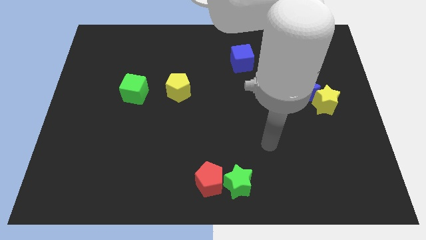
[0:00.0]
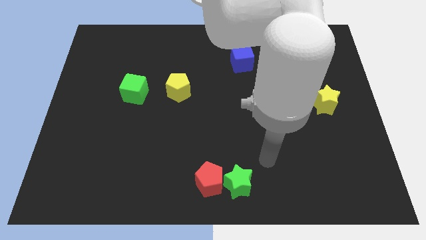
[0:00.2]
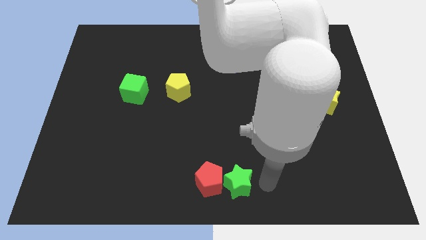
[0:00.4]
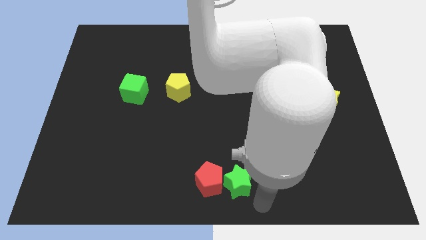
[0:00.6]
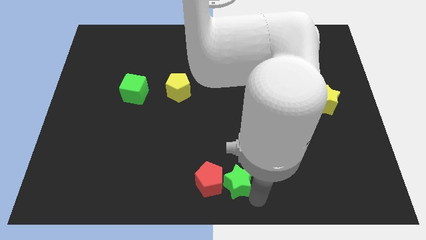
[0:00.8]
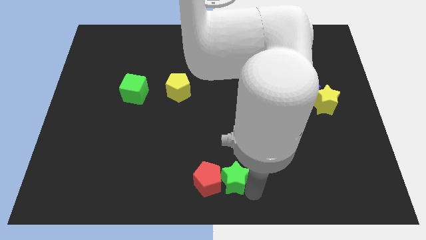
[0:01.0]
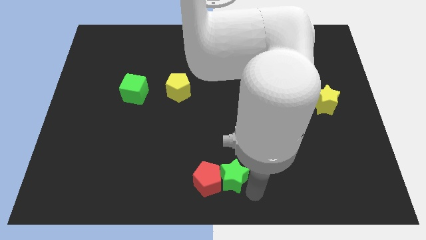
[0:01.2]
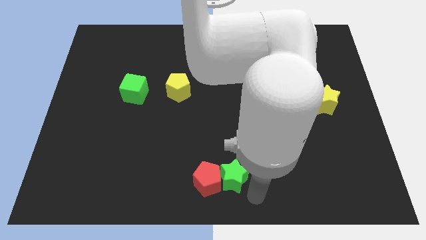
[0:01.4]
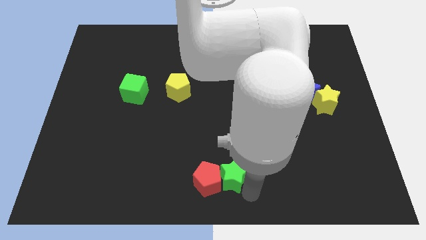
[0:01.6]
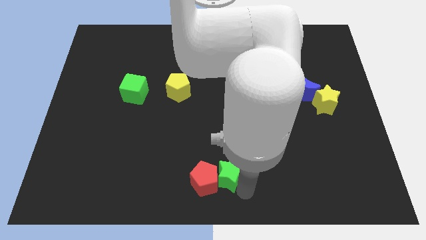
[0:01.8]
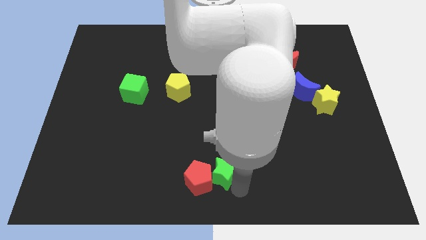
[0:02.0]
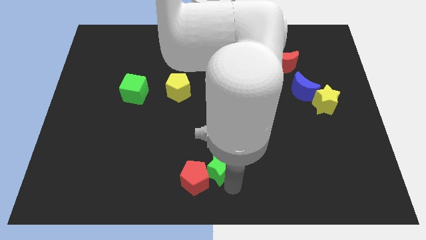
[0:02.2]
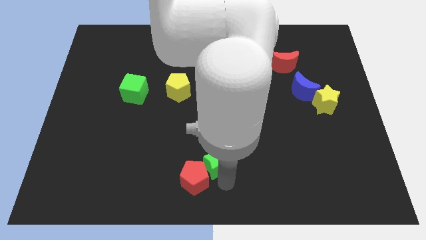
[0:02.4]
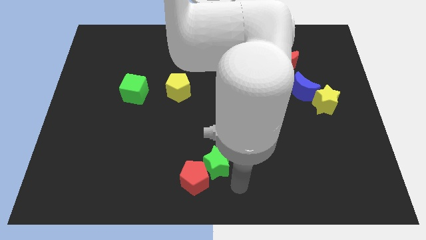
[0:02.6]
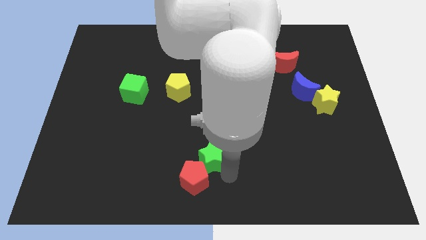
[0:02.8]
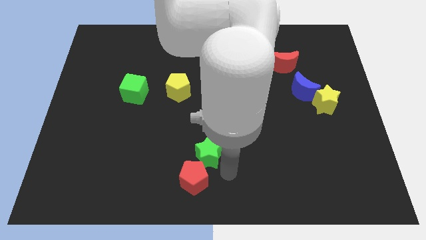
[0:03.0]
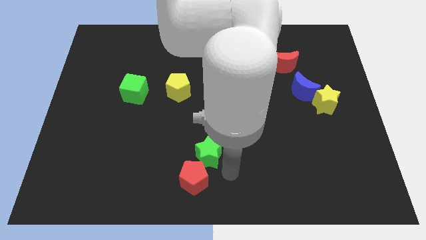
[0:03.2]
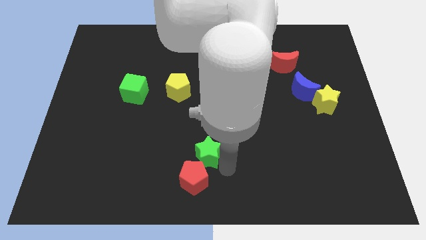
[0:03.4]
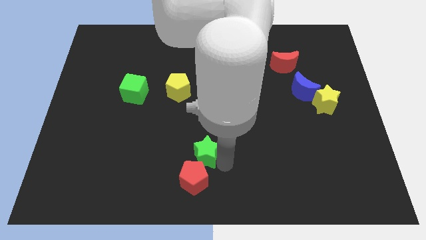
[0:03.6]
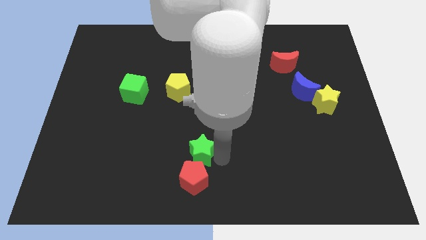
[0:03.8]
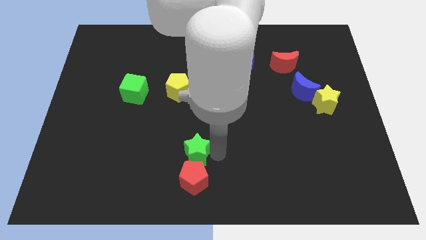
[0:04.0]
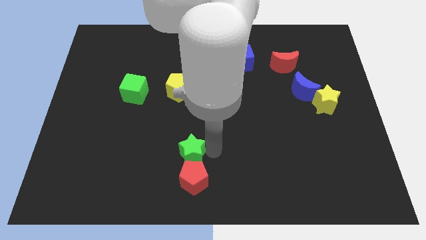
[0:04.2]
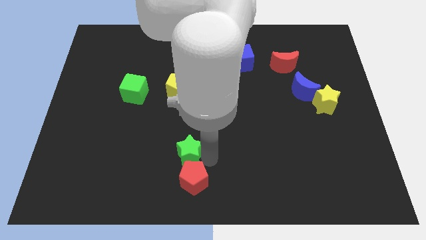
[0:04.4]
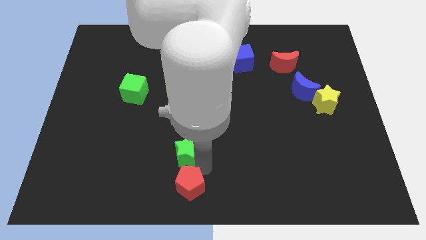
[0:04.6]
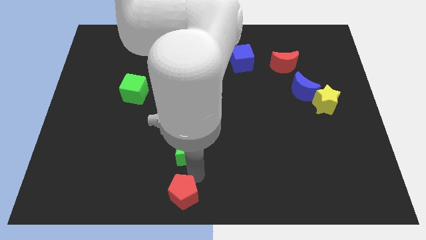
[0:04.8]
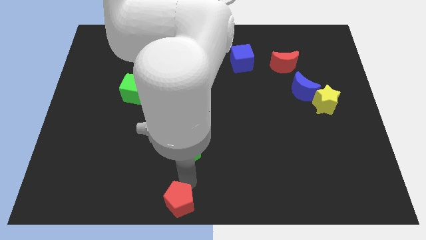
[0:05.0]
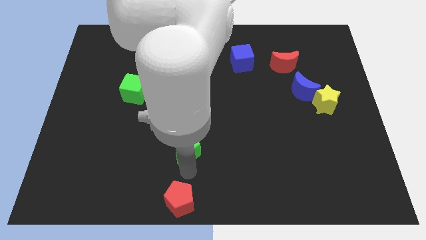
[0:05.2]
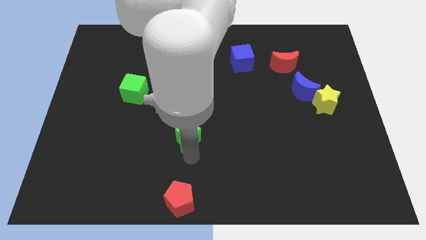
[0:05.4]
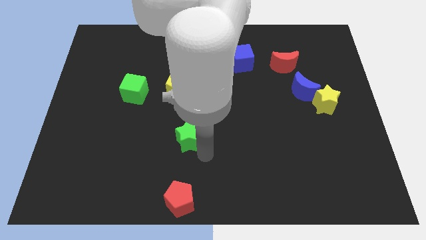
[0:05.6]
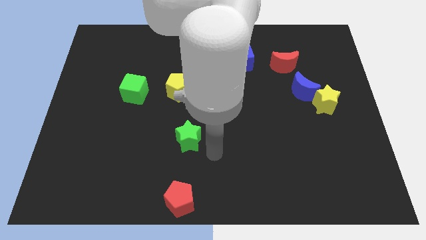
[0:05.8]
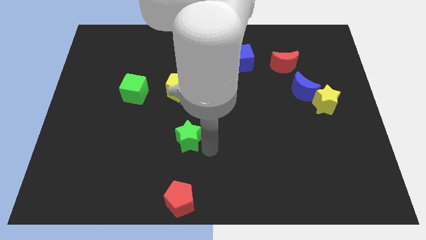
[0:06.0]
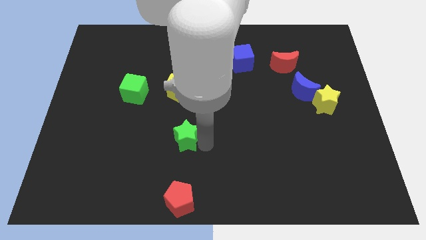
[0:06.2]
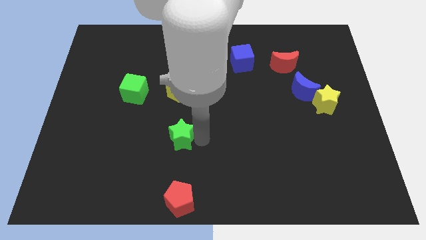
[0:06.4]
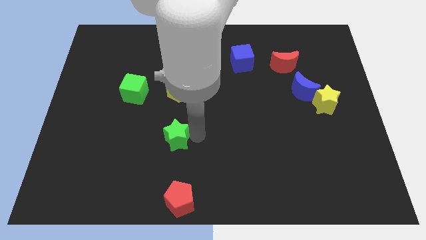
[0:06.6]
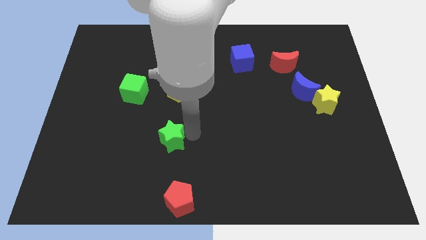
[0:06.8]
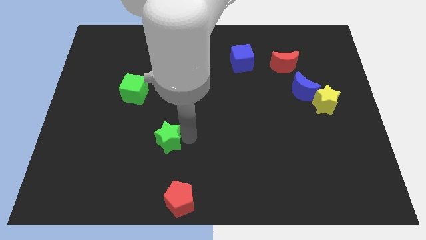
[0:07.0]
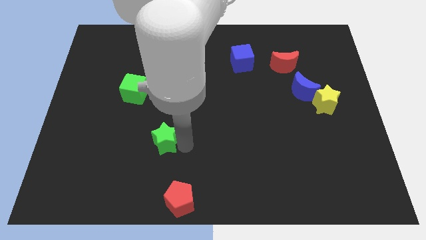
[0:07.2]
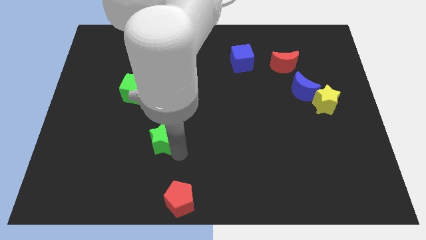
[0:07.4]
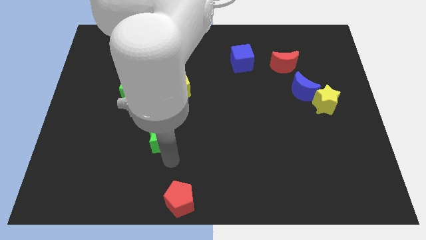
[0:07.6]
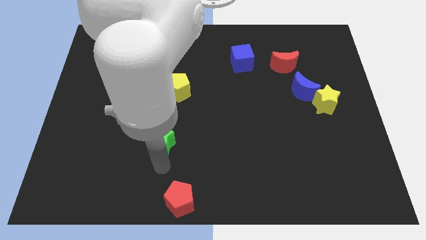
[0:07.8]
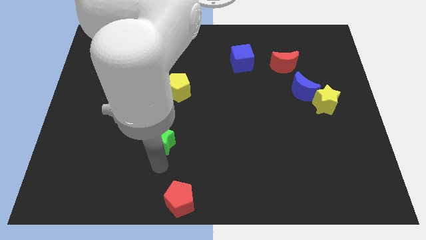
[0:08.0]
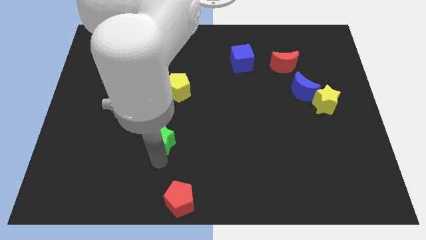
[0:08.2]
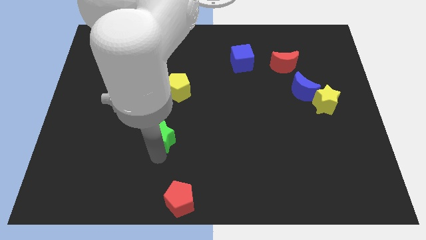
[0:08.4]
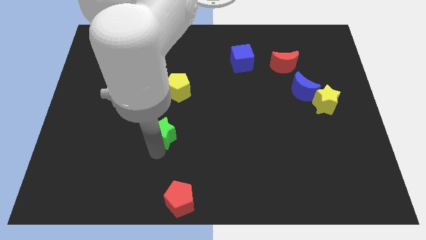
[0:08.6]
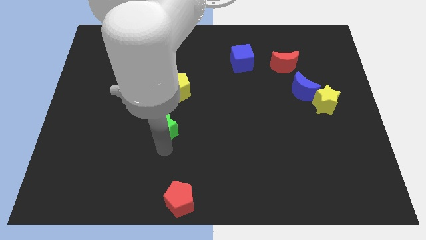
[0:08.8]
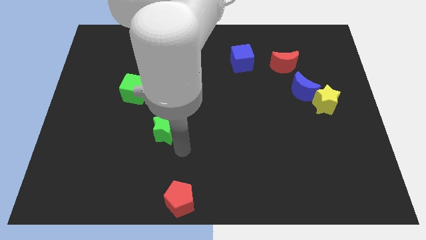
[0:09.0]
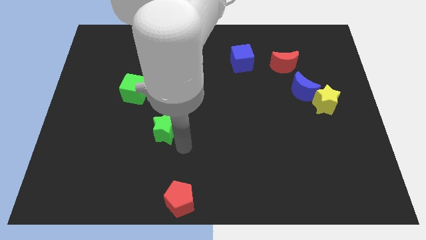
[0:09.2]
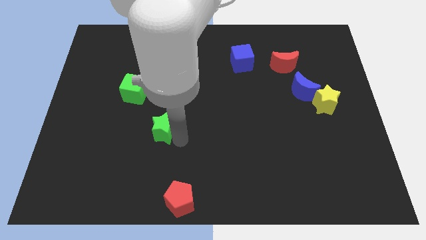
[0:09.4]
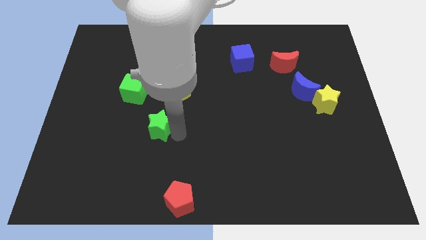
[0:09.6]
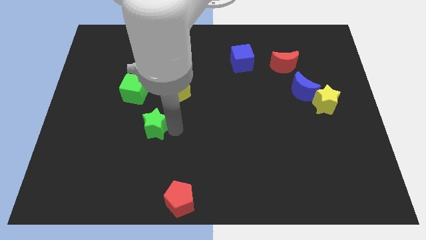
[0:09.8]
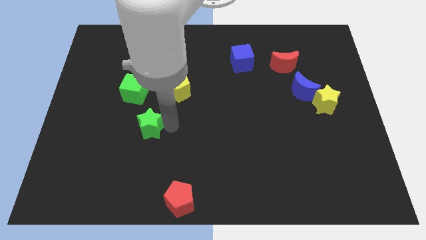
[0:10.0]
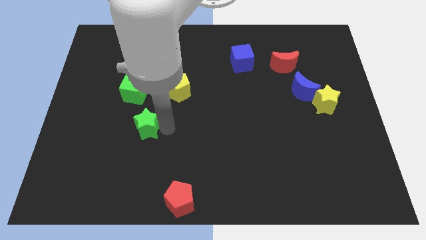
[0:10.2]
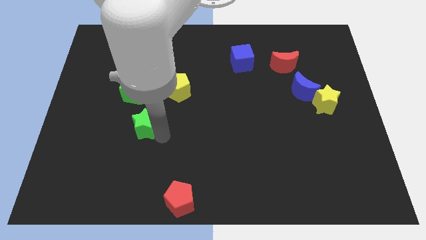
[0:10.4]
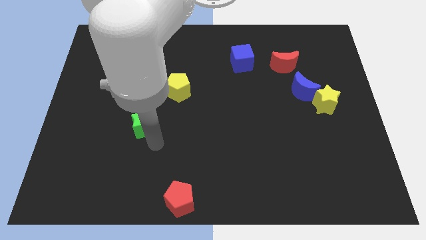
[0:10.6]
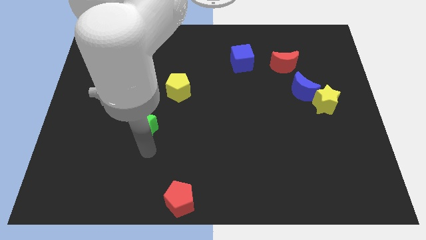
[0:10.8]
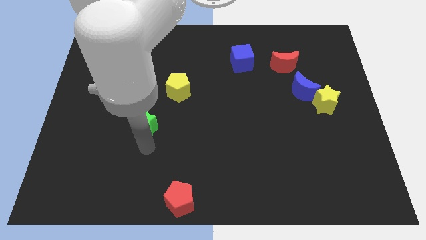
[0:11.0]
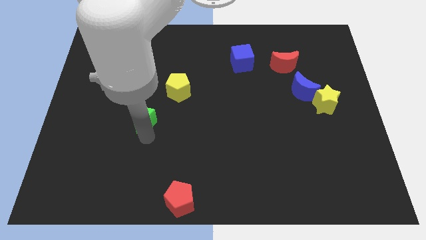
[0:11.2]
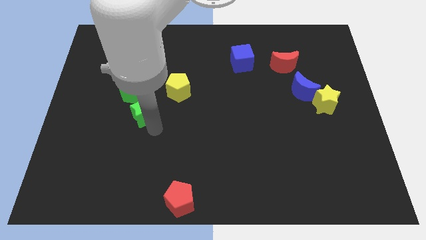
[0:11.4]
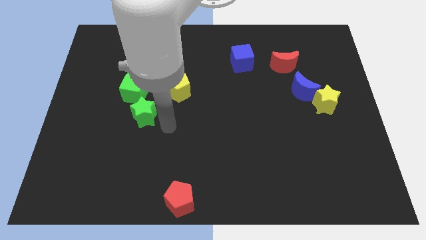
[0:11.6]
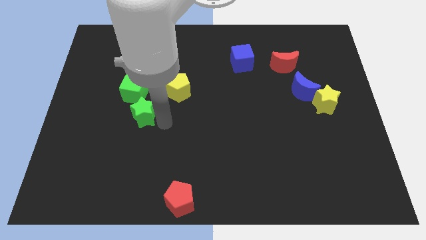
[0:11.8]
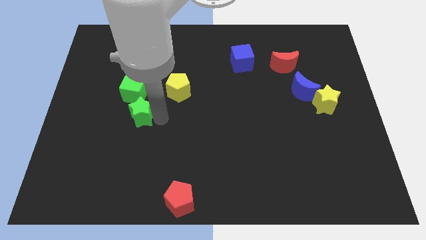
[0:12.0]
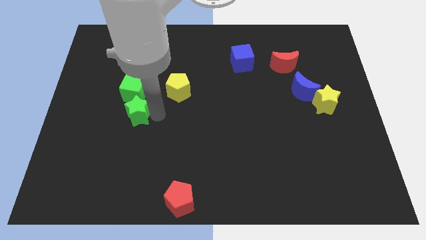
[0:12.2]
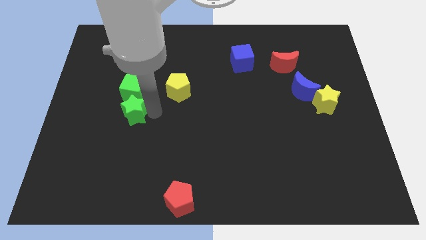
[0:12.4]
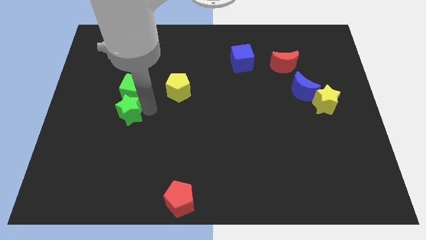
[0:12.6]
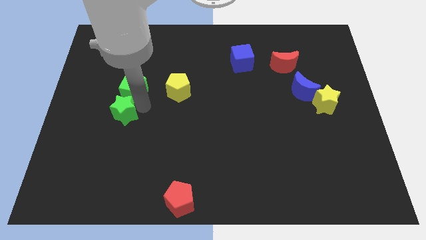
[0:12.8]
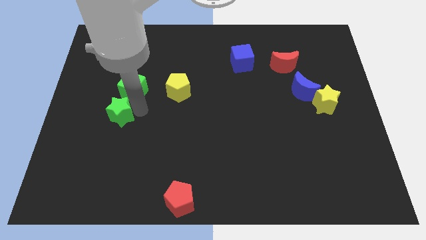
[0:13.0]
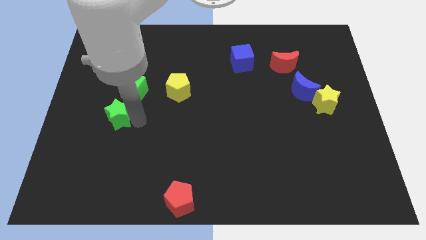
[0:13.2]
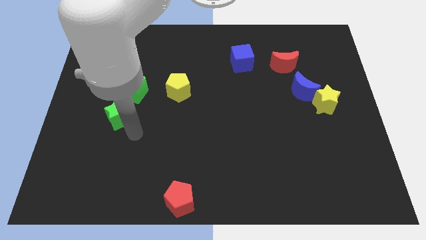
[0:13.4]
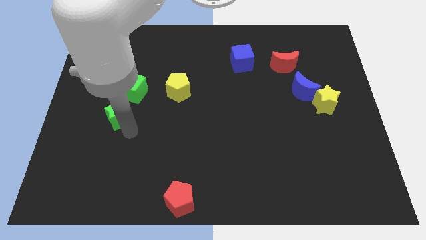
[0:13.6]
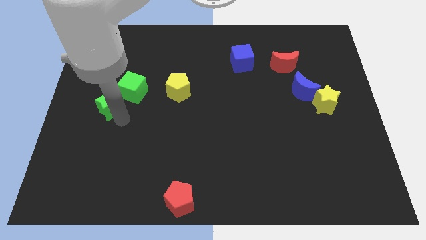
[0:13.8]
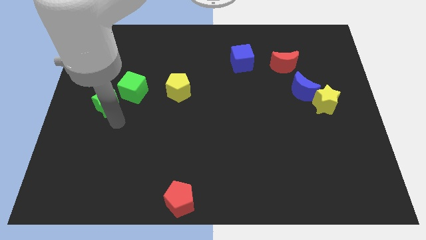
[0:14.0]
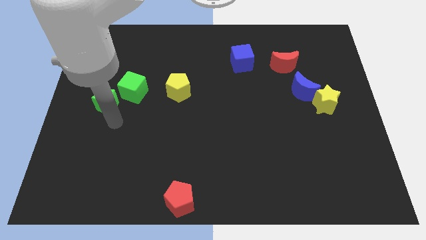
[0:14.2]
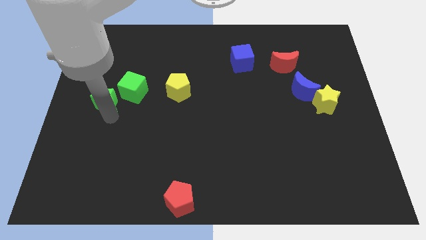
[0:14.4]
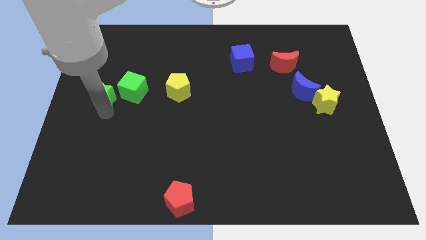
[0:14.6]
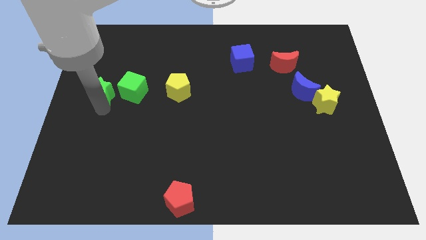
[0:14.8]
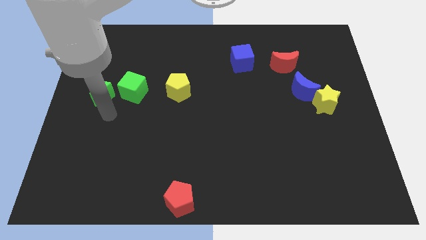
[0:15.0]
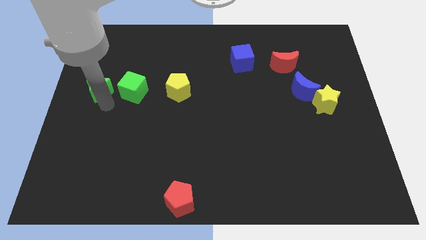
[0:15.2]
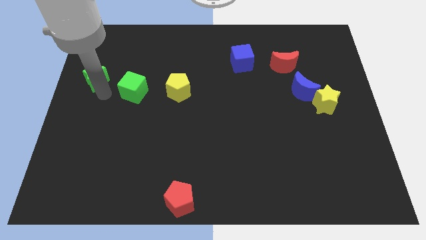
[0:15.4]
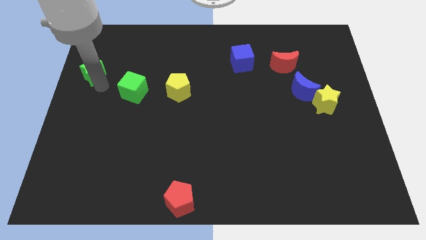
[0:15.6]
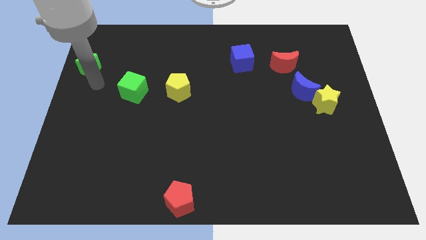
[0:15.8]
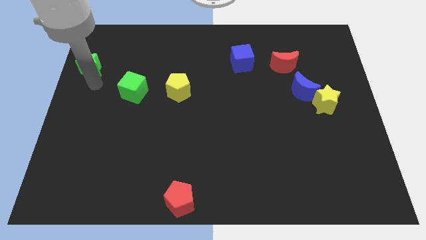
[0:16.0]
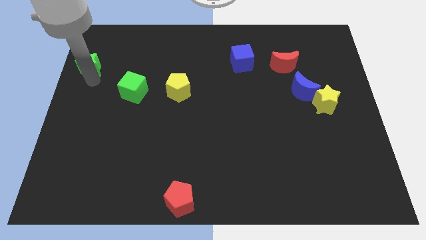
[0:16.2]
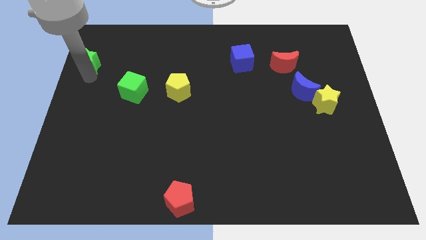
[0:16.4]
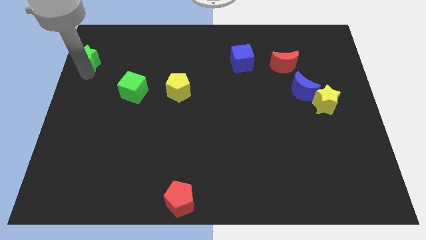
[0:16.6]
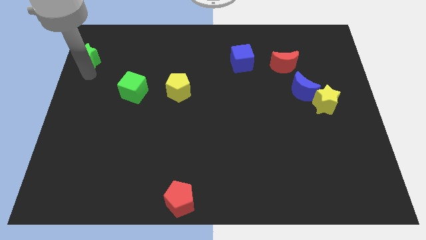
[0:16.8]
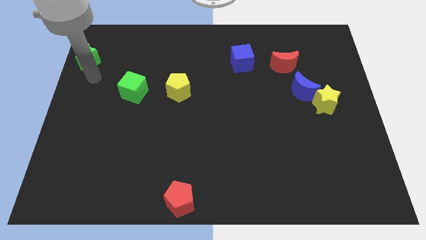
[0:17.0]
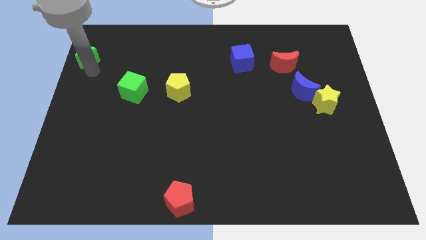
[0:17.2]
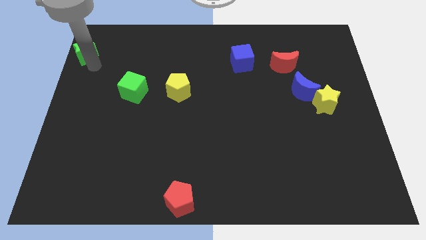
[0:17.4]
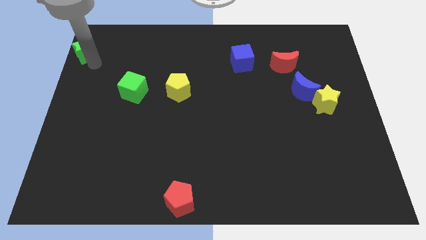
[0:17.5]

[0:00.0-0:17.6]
slide the green star to the top left
